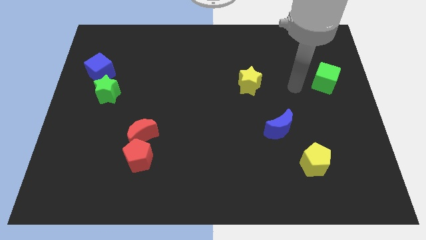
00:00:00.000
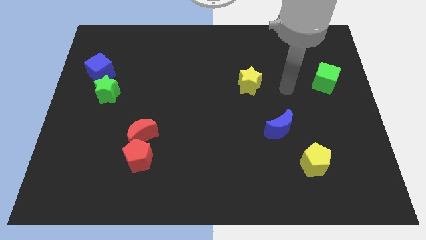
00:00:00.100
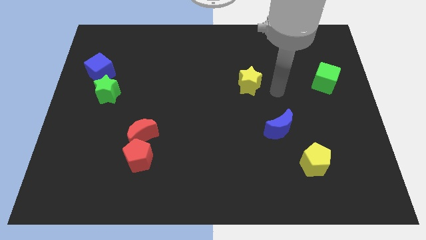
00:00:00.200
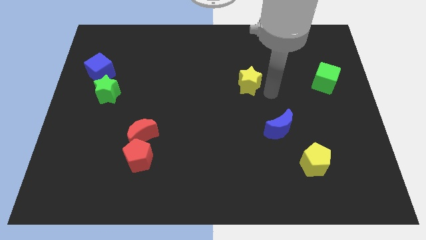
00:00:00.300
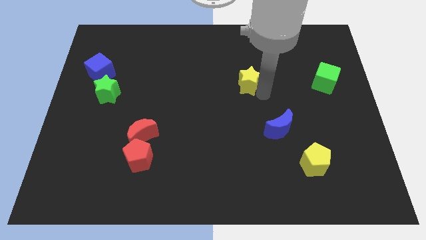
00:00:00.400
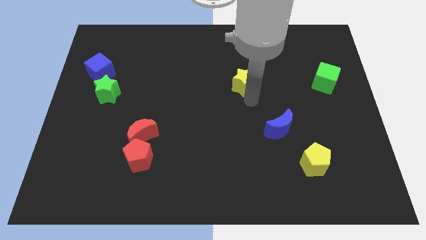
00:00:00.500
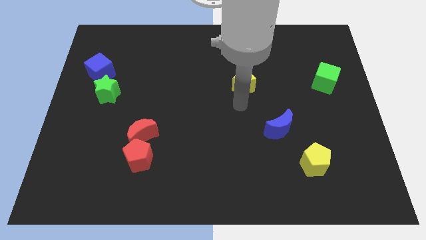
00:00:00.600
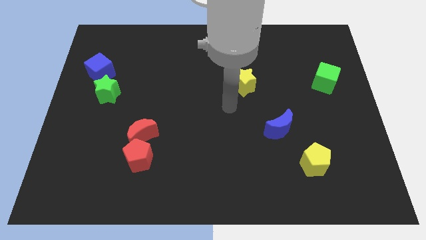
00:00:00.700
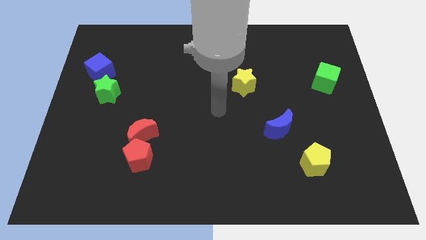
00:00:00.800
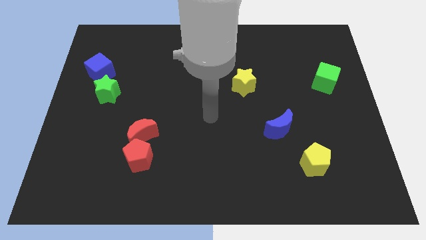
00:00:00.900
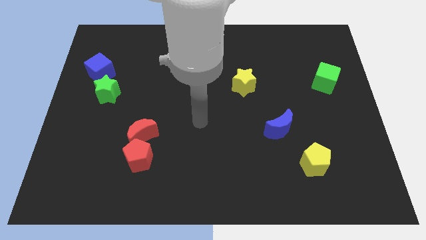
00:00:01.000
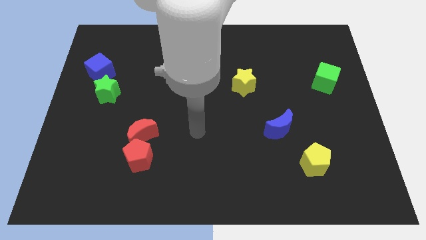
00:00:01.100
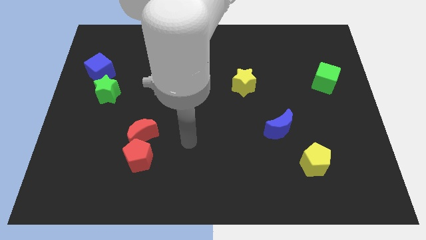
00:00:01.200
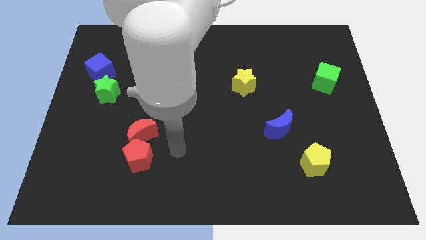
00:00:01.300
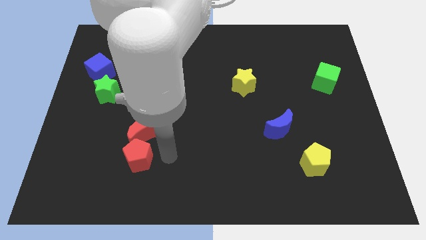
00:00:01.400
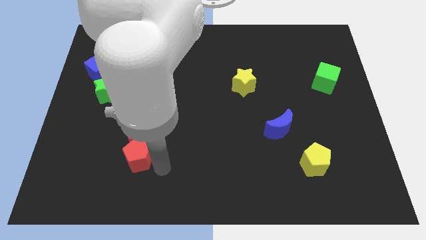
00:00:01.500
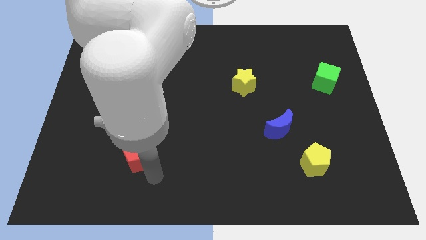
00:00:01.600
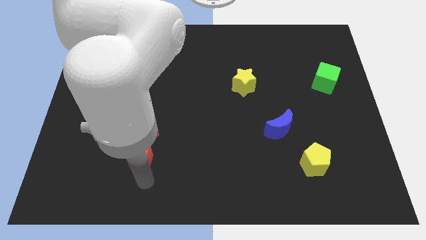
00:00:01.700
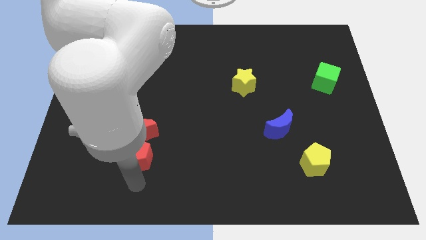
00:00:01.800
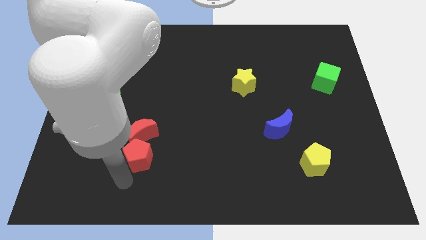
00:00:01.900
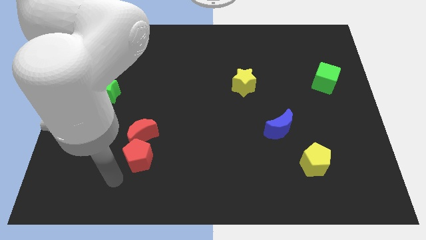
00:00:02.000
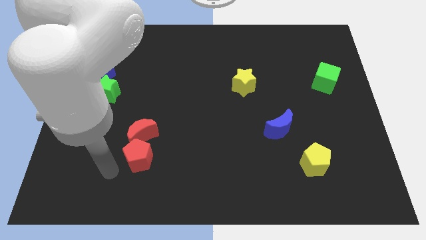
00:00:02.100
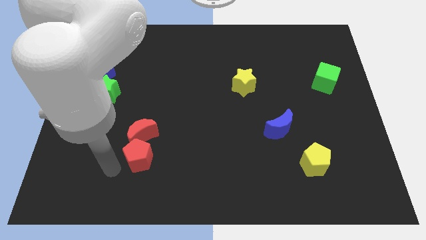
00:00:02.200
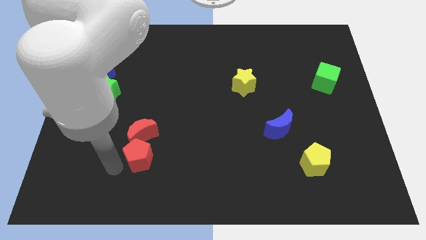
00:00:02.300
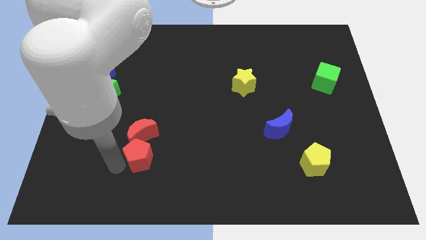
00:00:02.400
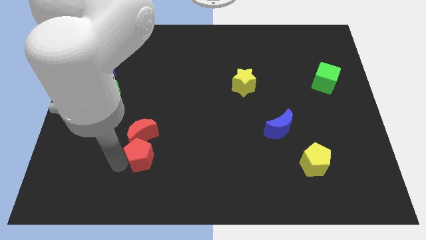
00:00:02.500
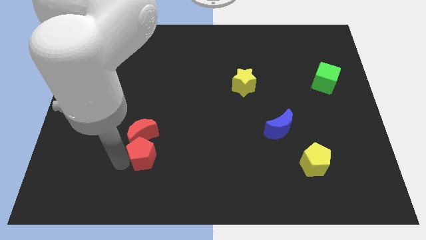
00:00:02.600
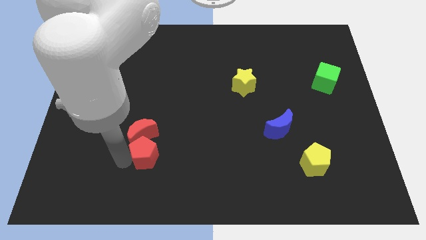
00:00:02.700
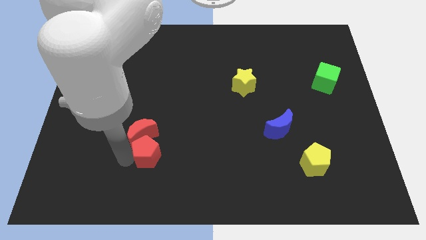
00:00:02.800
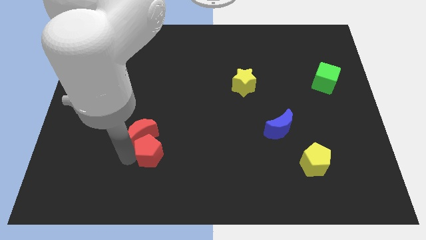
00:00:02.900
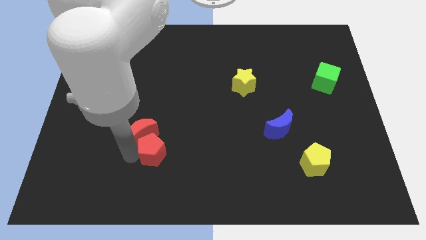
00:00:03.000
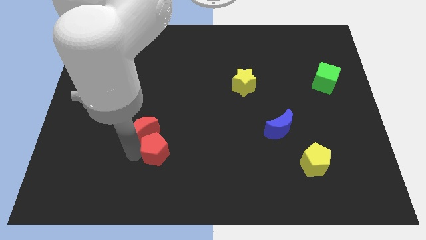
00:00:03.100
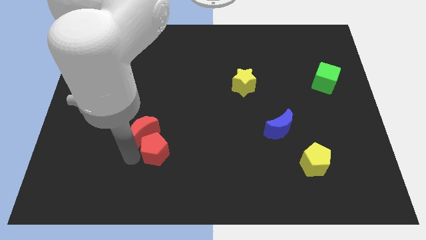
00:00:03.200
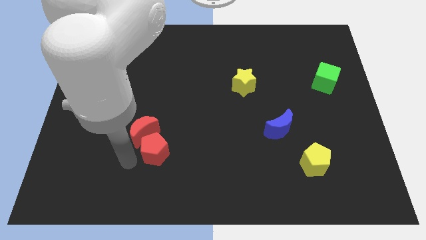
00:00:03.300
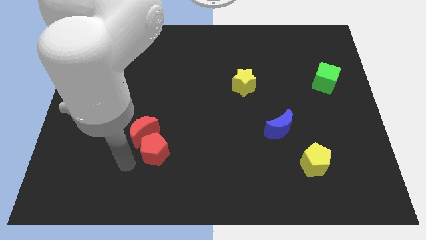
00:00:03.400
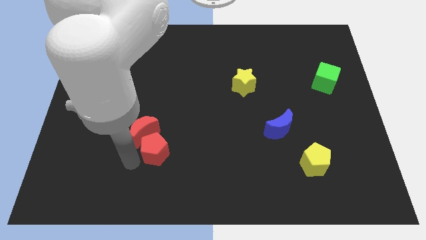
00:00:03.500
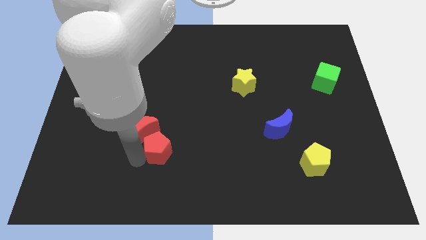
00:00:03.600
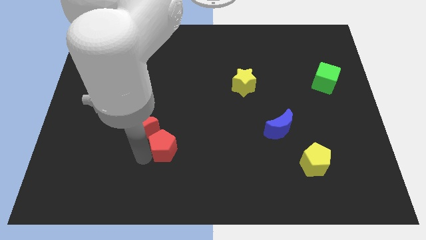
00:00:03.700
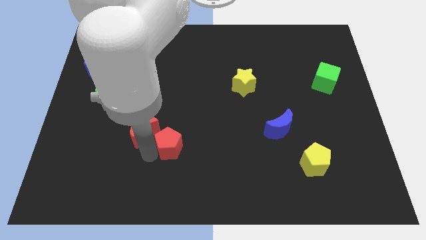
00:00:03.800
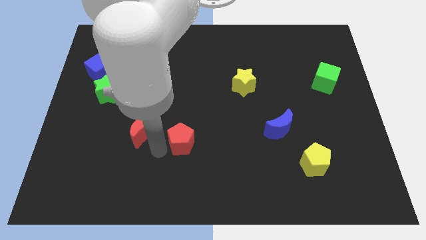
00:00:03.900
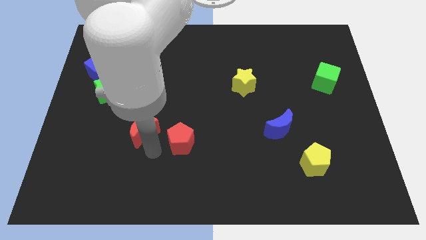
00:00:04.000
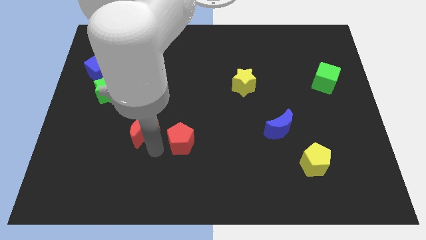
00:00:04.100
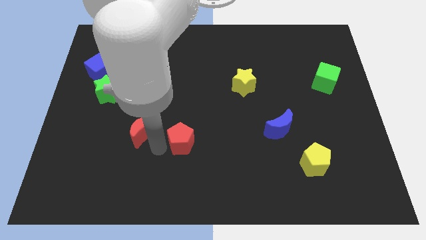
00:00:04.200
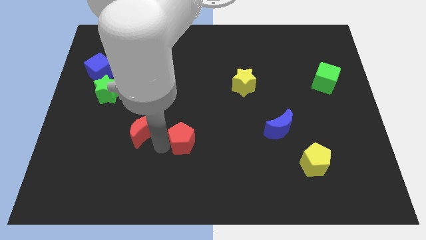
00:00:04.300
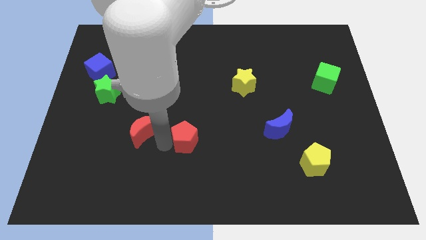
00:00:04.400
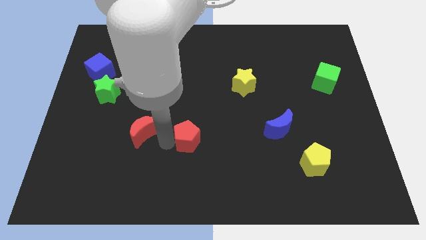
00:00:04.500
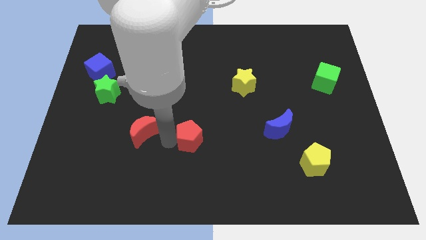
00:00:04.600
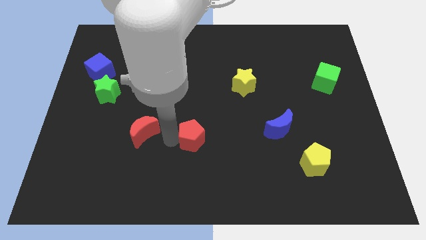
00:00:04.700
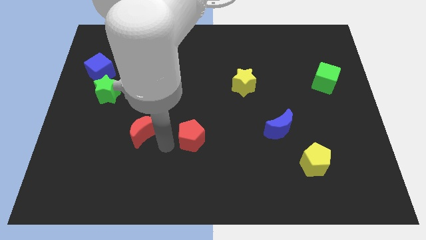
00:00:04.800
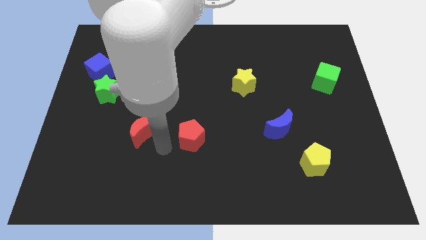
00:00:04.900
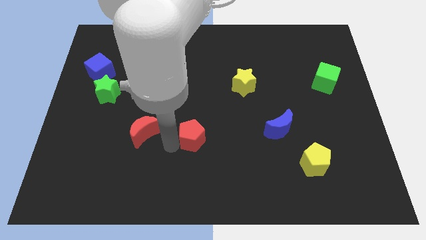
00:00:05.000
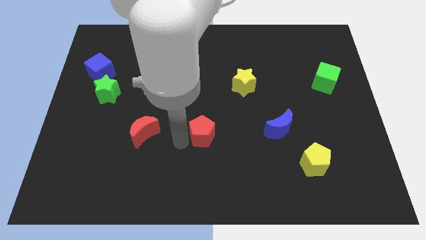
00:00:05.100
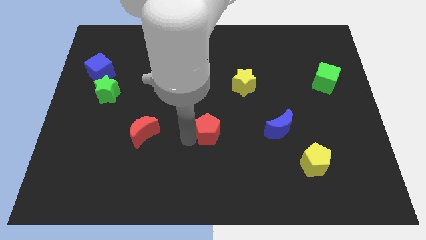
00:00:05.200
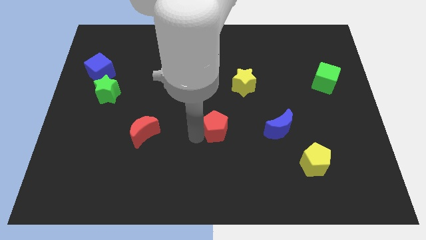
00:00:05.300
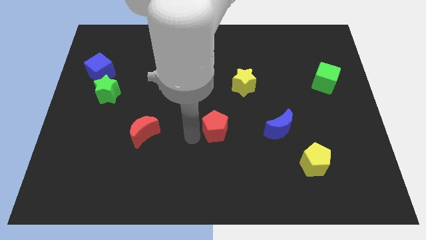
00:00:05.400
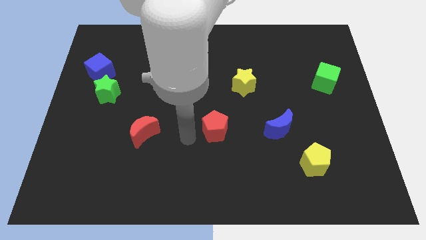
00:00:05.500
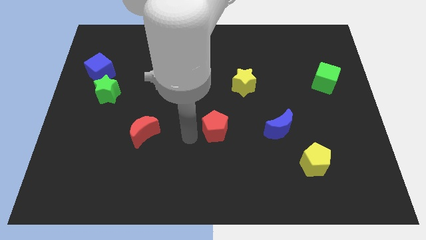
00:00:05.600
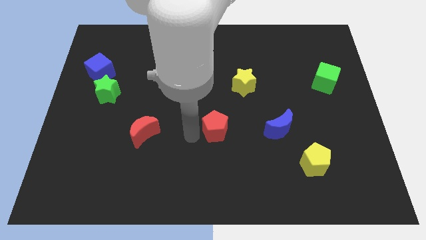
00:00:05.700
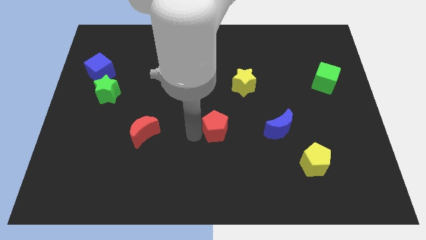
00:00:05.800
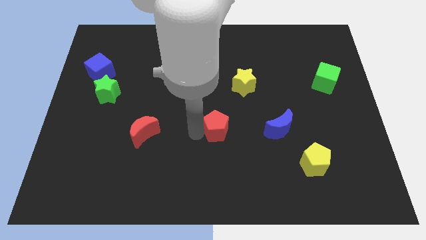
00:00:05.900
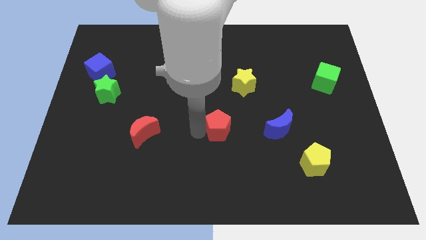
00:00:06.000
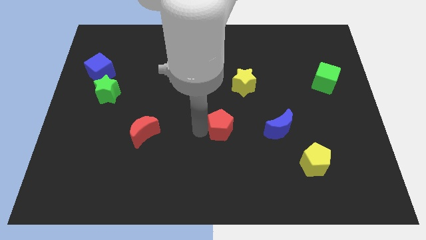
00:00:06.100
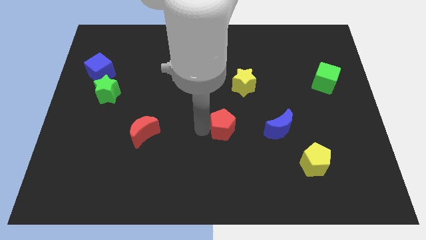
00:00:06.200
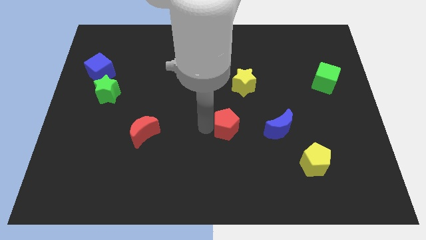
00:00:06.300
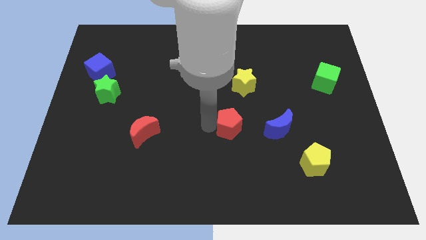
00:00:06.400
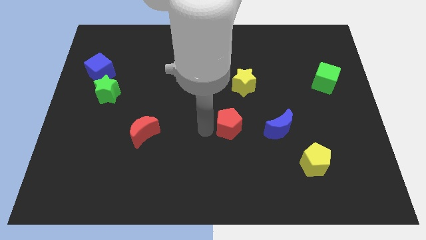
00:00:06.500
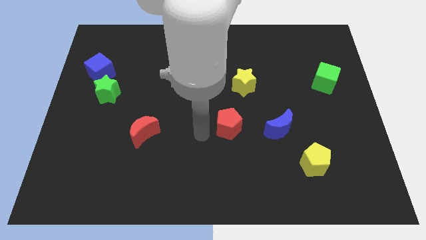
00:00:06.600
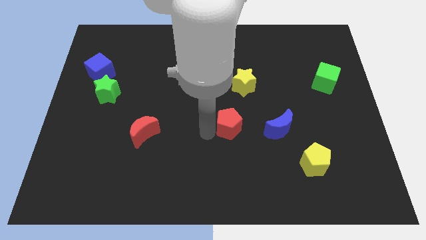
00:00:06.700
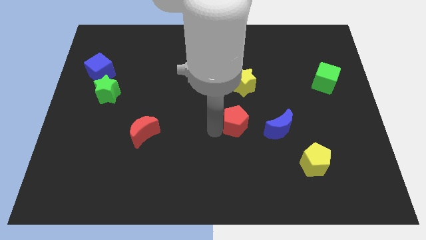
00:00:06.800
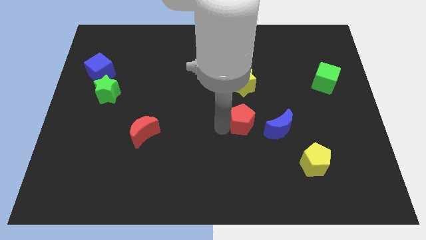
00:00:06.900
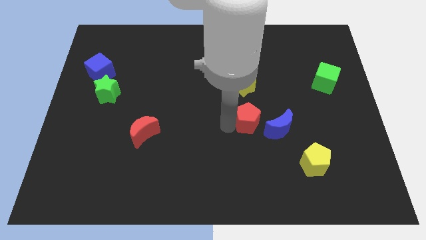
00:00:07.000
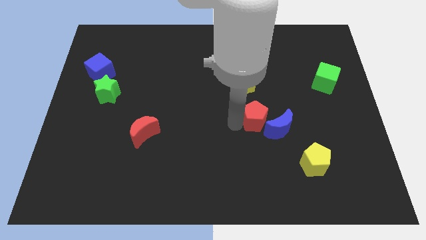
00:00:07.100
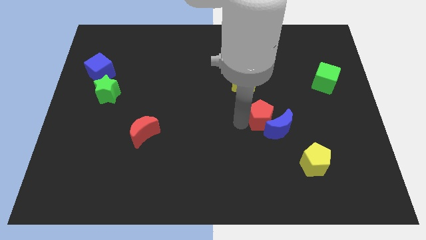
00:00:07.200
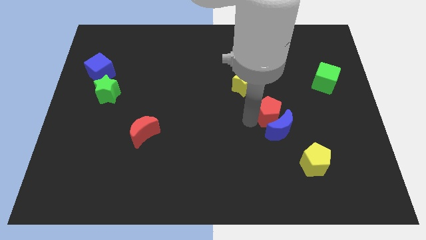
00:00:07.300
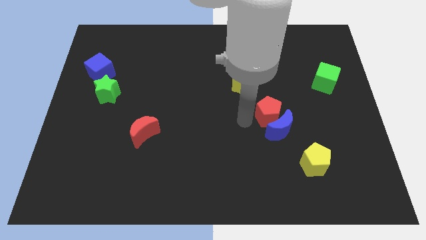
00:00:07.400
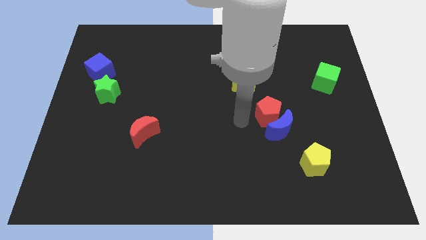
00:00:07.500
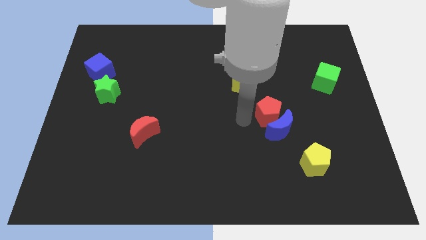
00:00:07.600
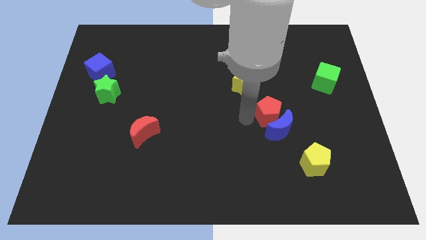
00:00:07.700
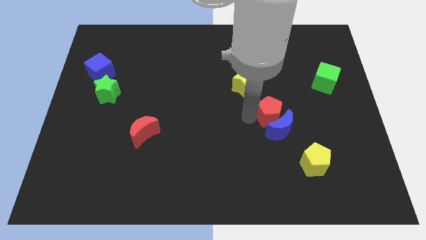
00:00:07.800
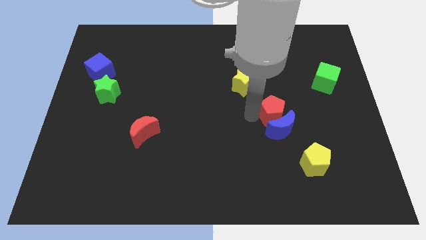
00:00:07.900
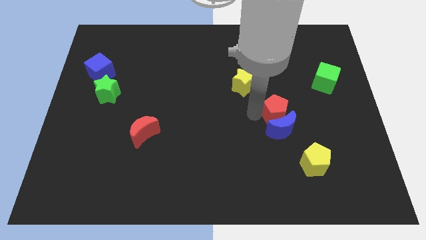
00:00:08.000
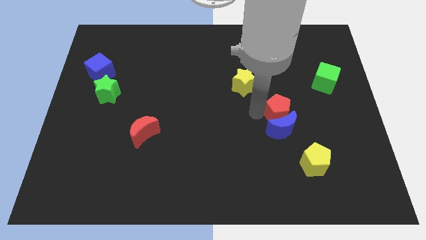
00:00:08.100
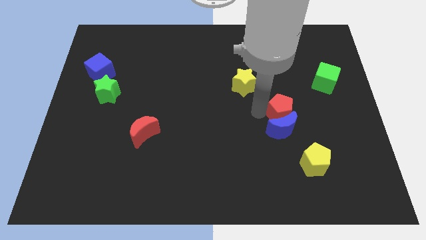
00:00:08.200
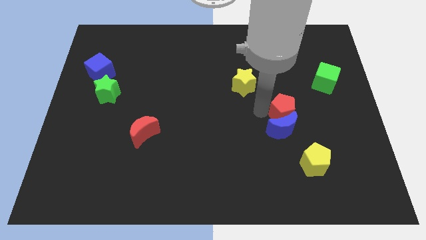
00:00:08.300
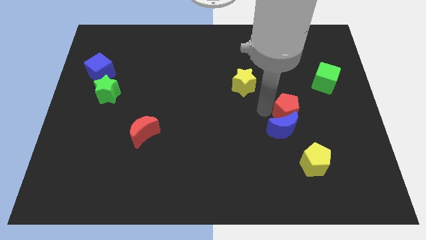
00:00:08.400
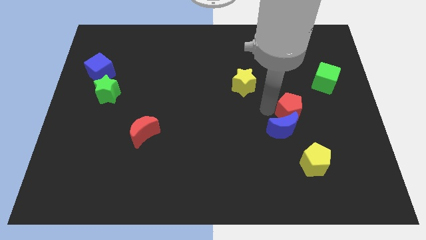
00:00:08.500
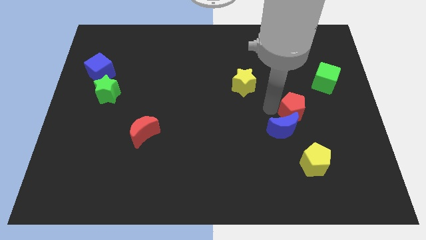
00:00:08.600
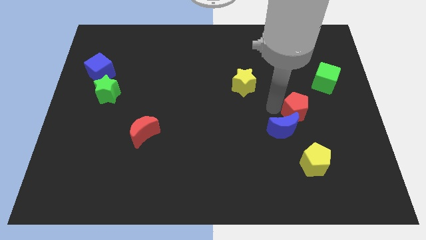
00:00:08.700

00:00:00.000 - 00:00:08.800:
push the red pentagon to the bottom left of the green cube
